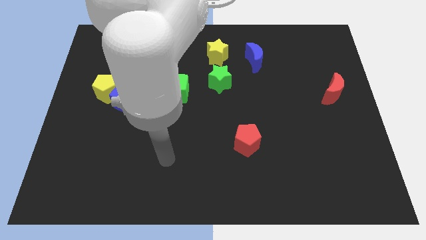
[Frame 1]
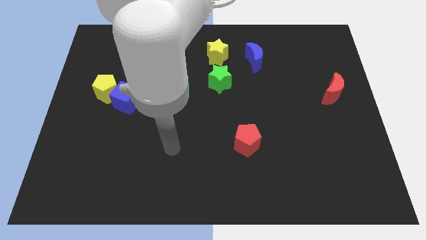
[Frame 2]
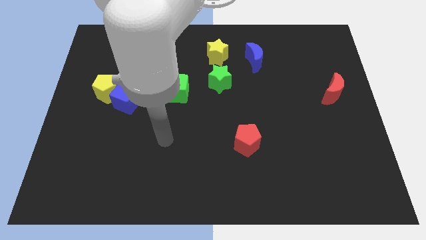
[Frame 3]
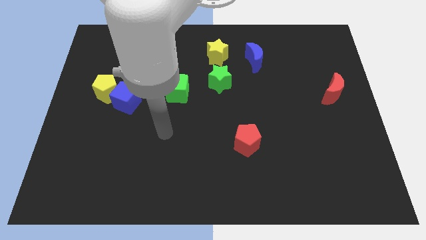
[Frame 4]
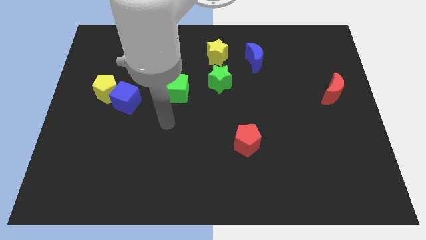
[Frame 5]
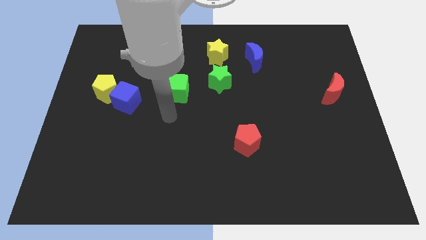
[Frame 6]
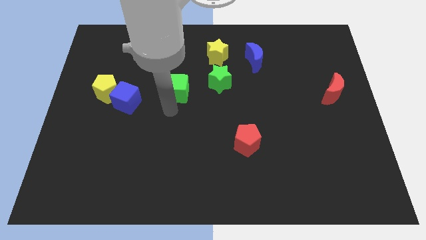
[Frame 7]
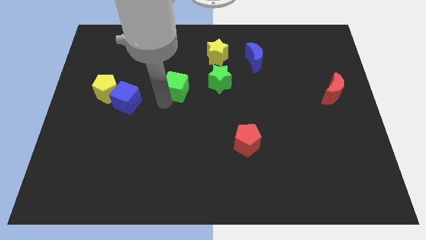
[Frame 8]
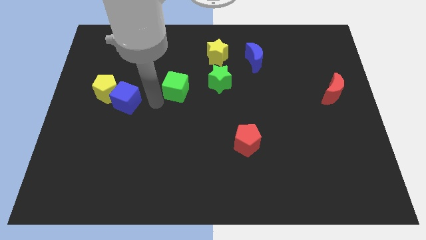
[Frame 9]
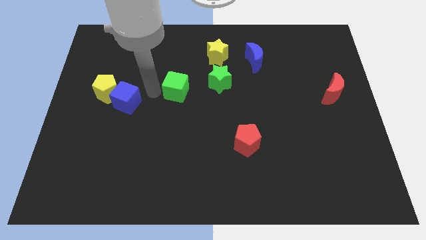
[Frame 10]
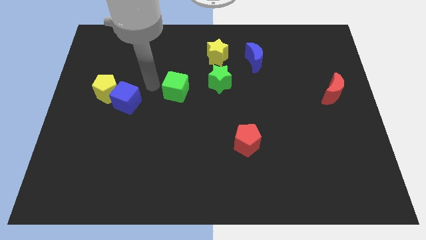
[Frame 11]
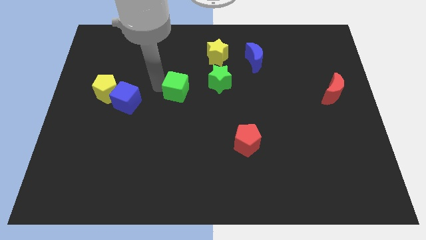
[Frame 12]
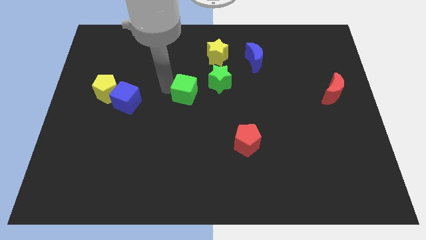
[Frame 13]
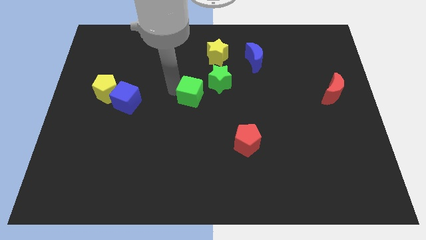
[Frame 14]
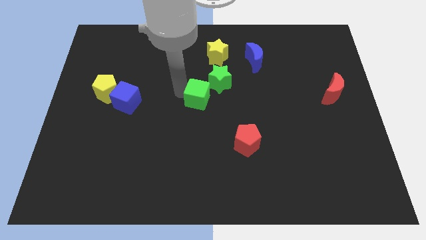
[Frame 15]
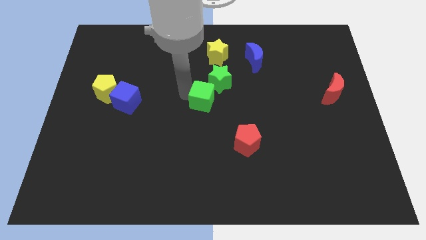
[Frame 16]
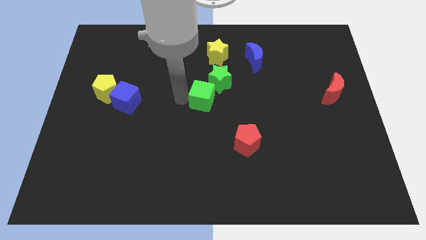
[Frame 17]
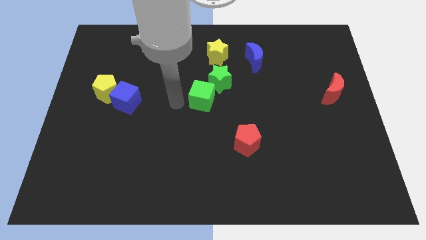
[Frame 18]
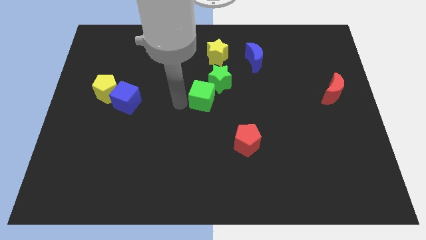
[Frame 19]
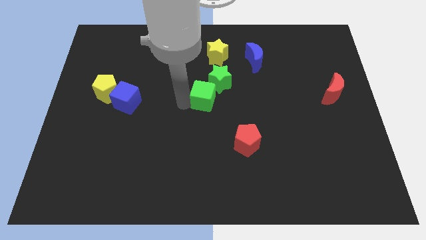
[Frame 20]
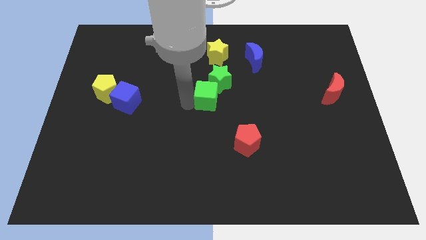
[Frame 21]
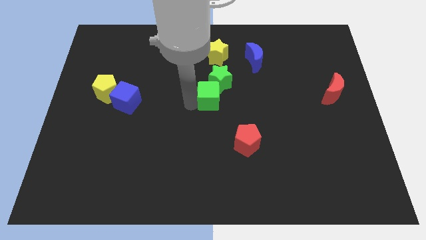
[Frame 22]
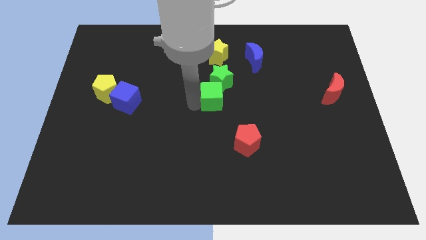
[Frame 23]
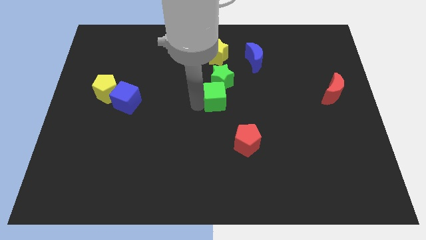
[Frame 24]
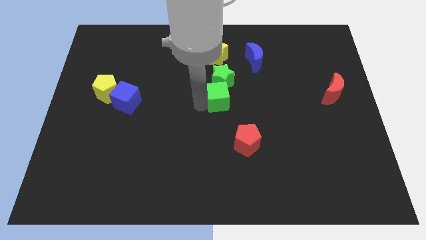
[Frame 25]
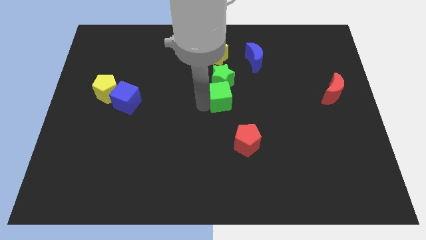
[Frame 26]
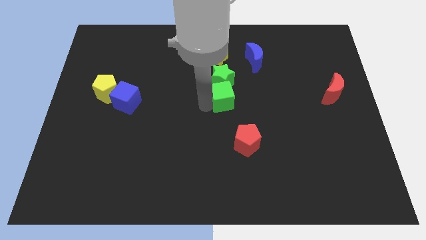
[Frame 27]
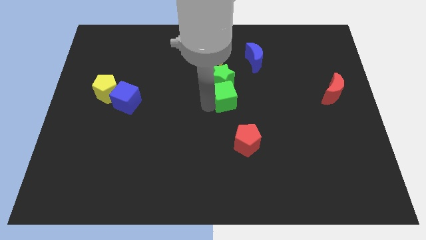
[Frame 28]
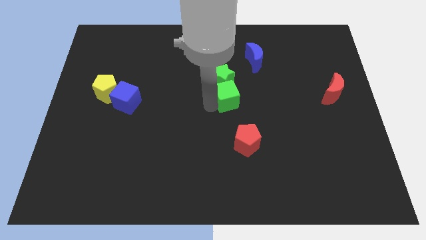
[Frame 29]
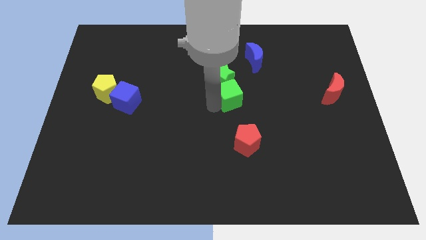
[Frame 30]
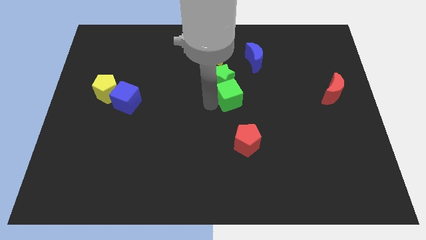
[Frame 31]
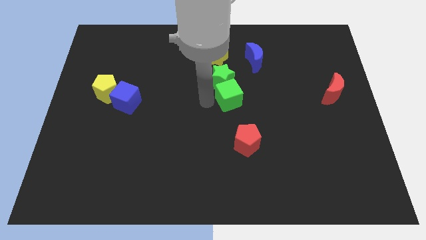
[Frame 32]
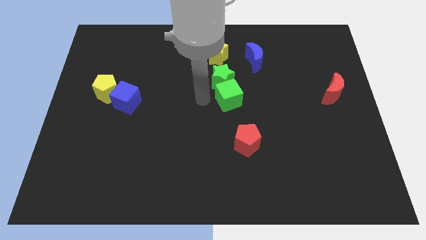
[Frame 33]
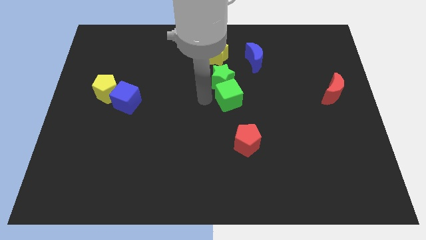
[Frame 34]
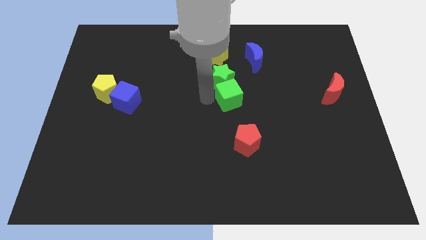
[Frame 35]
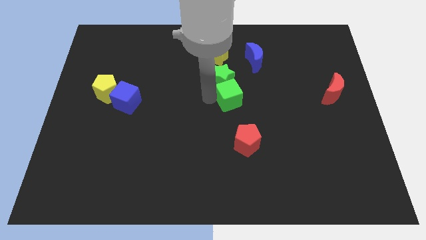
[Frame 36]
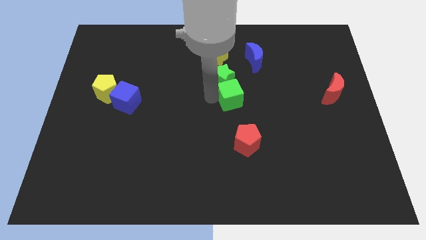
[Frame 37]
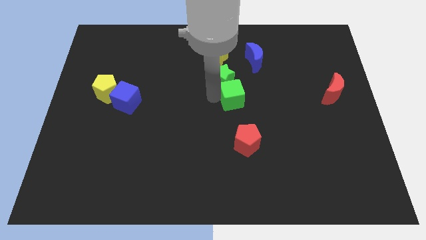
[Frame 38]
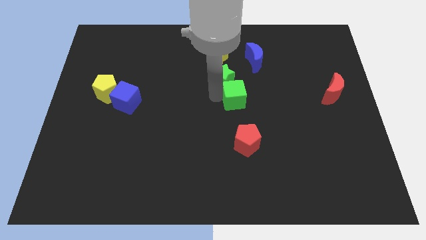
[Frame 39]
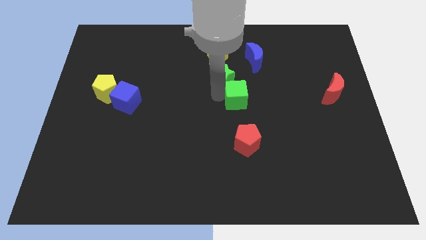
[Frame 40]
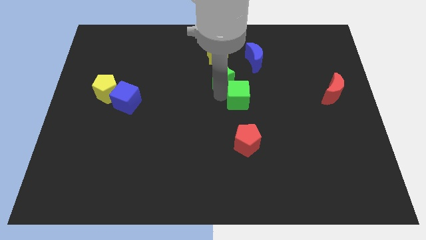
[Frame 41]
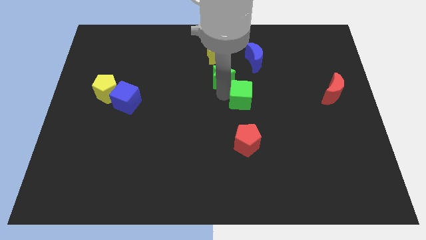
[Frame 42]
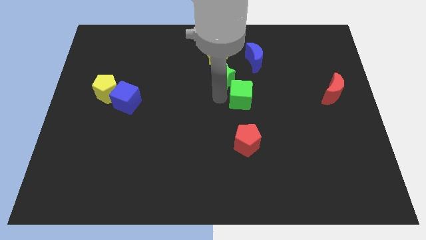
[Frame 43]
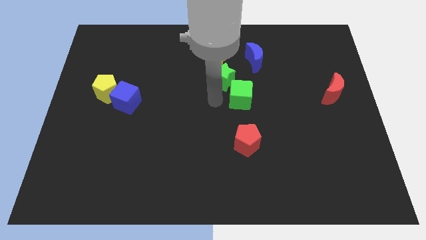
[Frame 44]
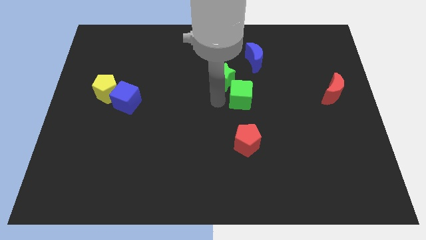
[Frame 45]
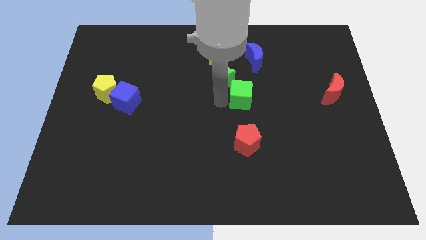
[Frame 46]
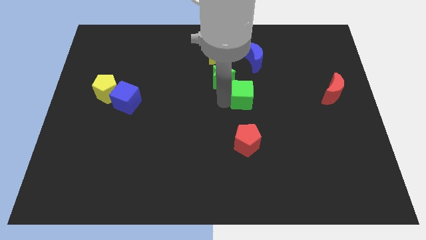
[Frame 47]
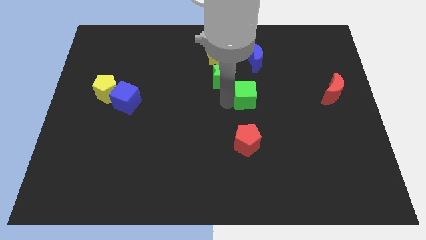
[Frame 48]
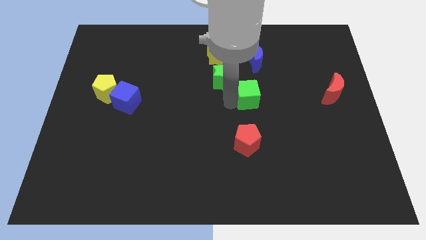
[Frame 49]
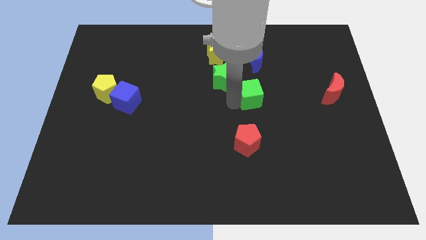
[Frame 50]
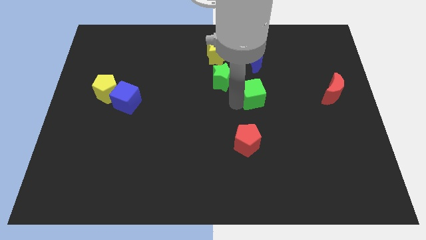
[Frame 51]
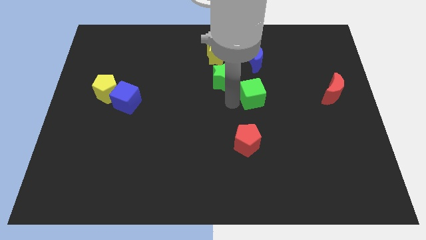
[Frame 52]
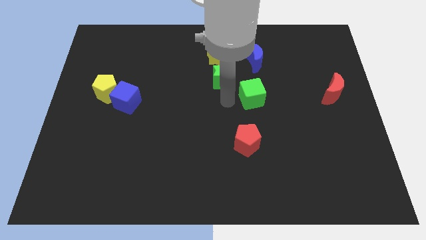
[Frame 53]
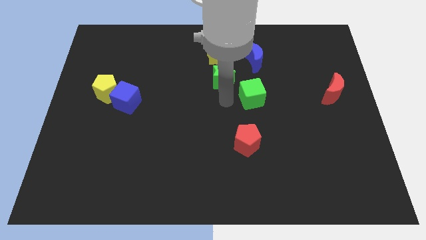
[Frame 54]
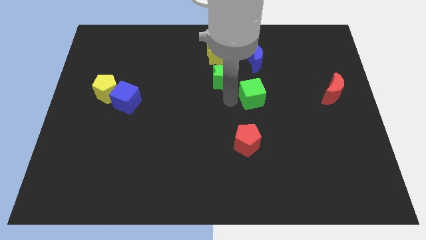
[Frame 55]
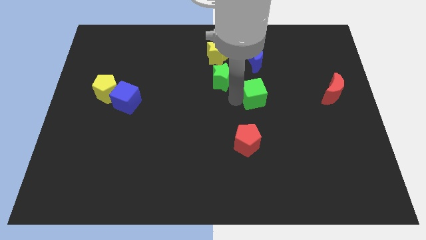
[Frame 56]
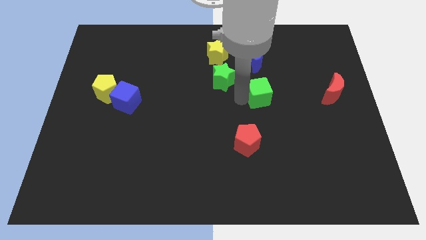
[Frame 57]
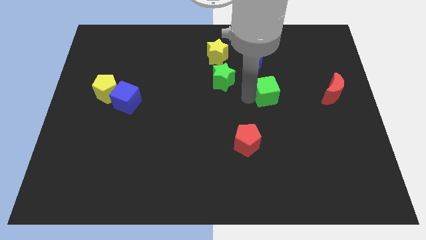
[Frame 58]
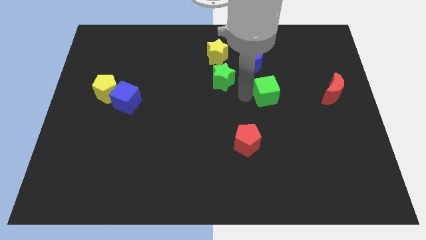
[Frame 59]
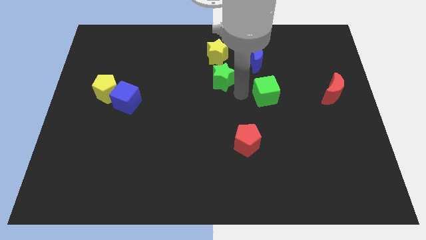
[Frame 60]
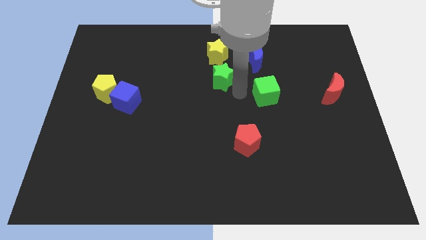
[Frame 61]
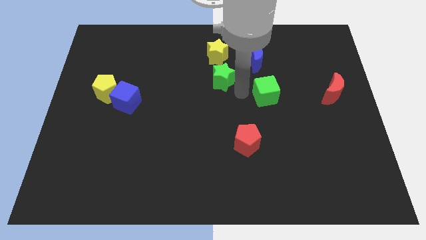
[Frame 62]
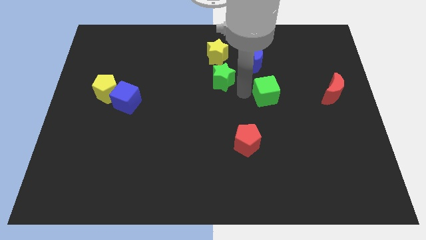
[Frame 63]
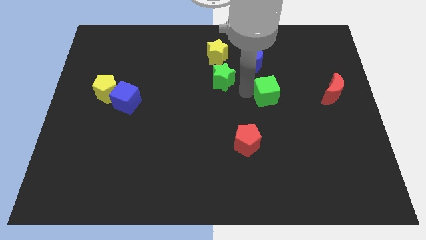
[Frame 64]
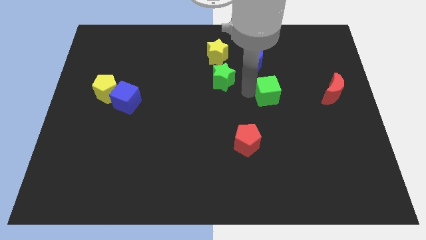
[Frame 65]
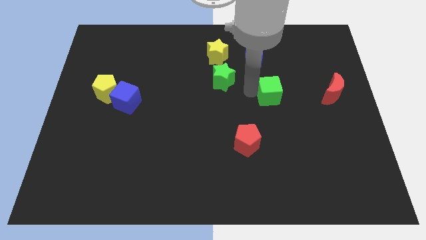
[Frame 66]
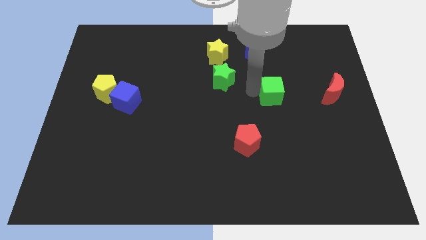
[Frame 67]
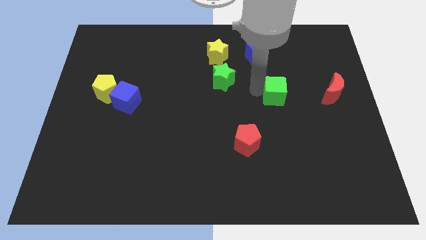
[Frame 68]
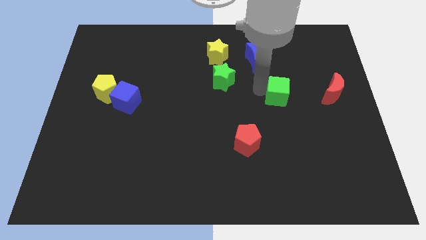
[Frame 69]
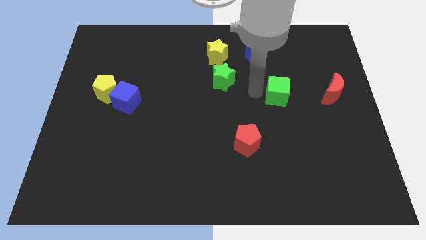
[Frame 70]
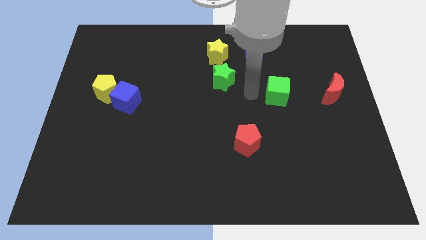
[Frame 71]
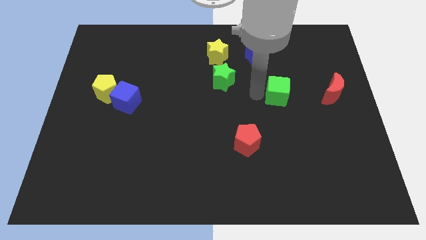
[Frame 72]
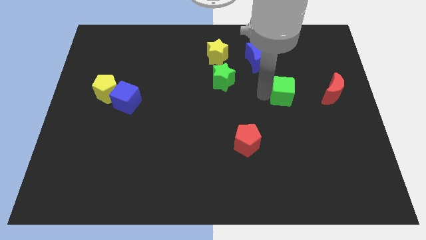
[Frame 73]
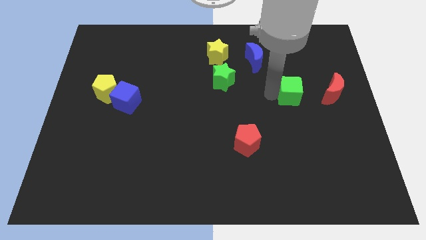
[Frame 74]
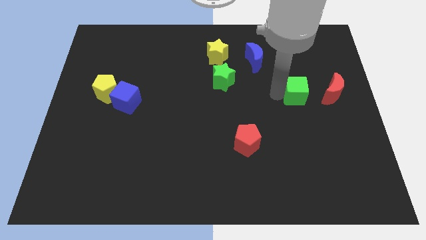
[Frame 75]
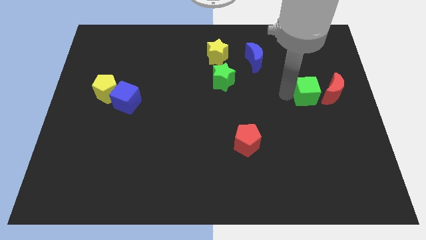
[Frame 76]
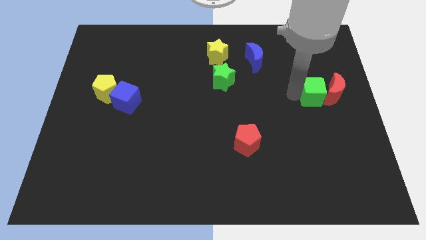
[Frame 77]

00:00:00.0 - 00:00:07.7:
move the green cube to the red moon

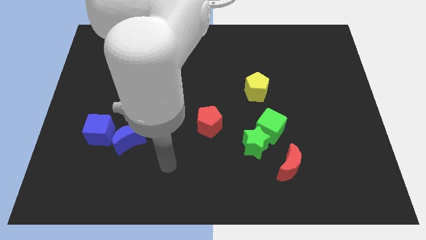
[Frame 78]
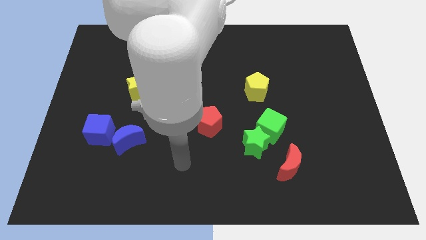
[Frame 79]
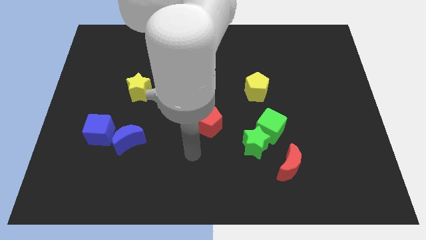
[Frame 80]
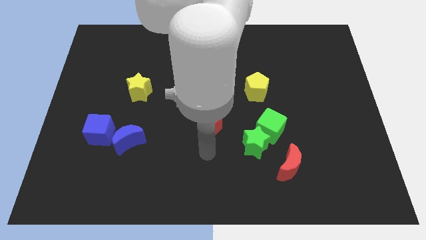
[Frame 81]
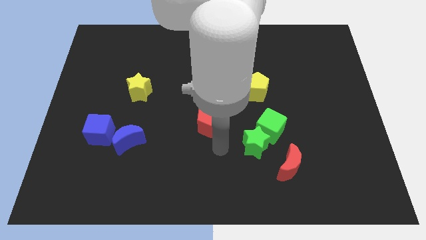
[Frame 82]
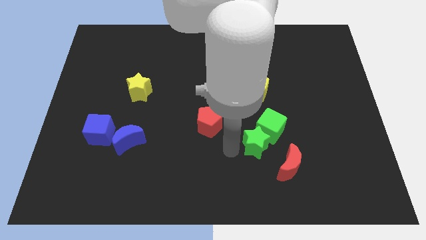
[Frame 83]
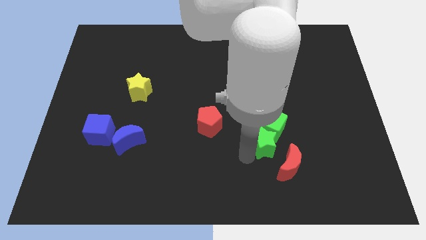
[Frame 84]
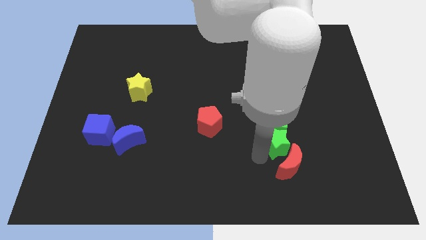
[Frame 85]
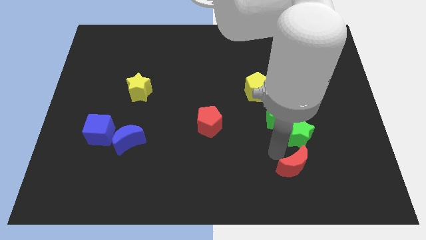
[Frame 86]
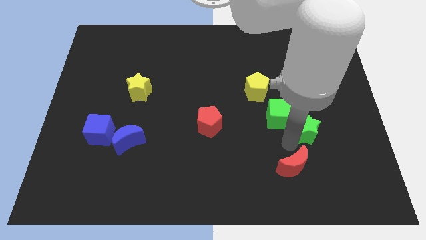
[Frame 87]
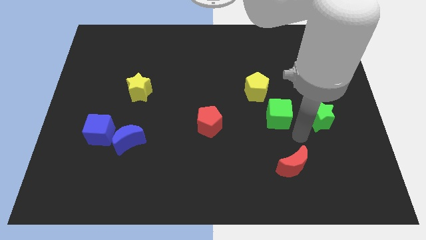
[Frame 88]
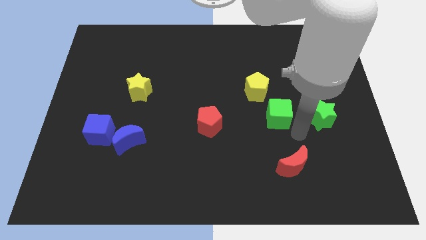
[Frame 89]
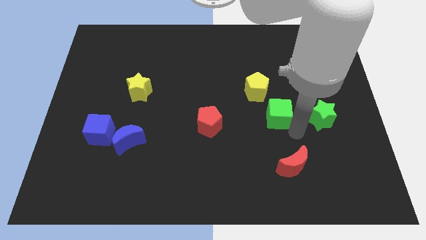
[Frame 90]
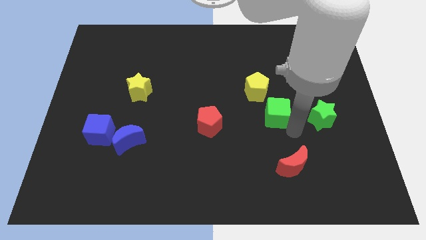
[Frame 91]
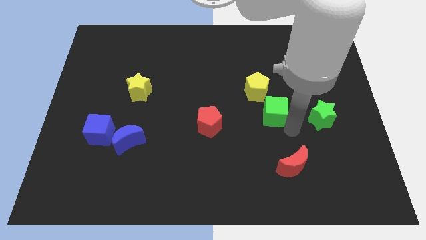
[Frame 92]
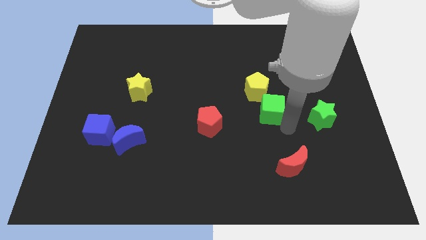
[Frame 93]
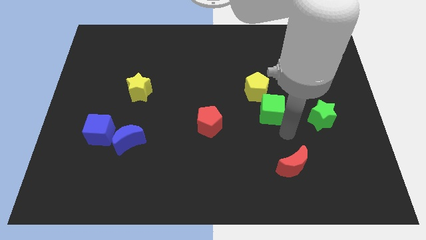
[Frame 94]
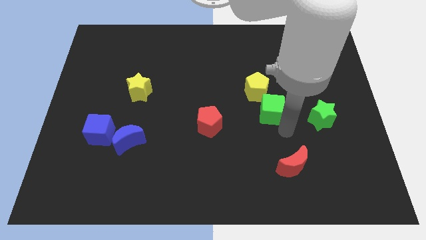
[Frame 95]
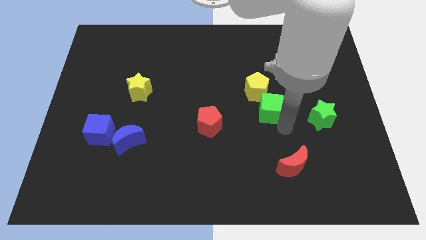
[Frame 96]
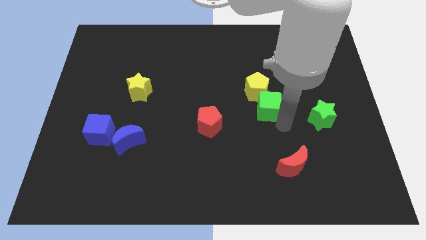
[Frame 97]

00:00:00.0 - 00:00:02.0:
put the green cube next to the yellow pentagon
